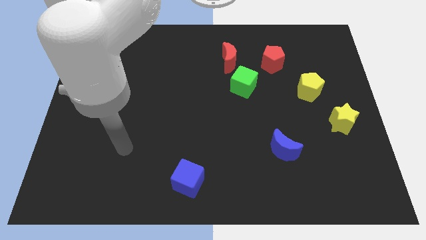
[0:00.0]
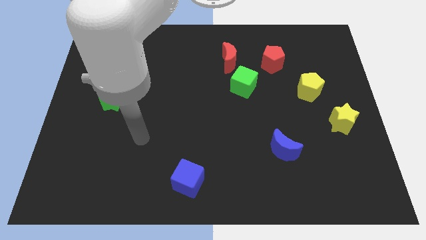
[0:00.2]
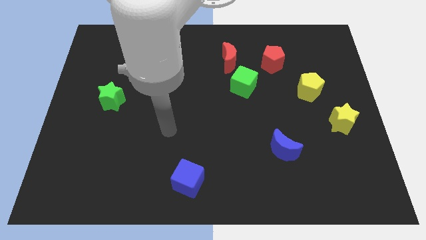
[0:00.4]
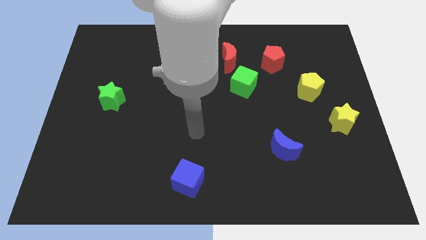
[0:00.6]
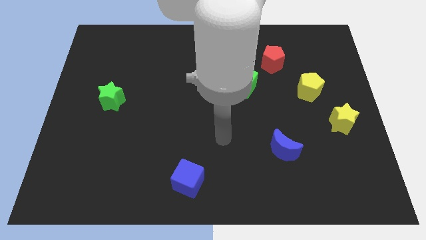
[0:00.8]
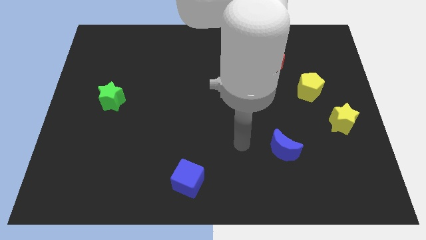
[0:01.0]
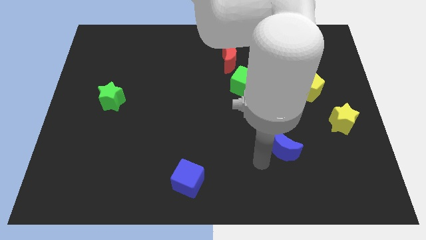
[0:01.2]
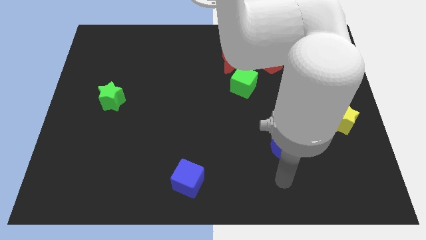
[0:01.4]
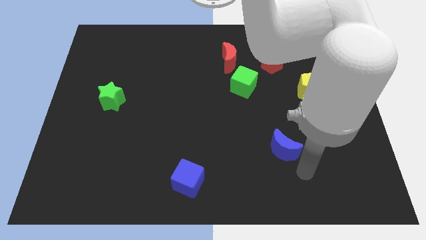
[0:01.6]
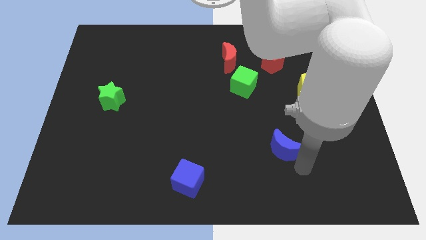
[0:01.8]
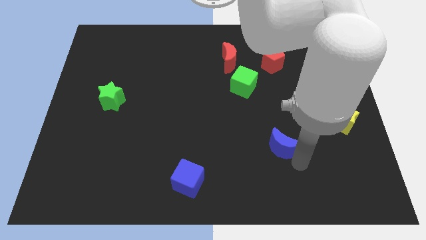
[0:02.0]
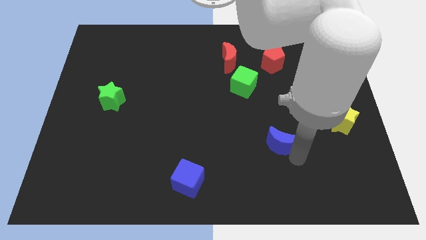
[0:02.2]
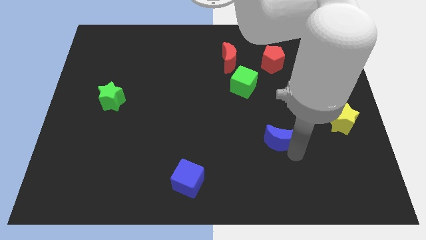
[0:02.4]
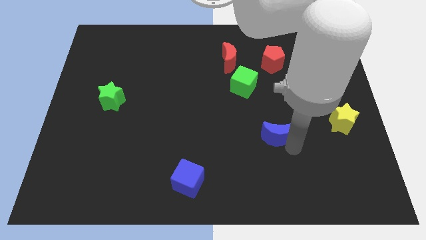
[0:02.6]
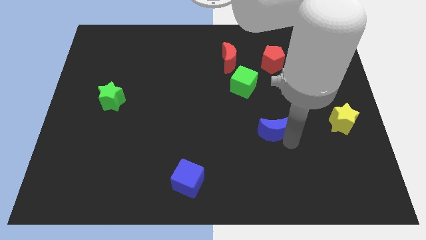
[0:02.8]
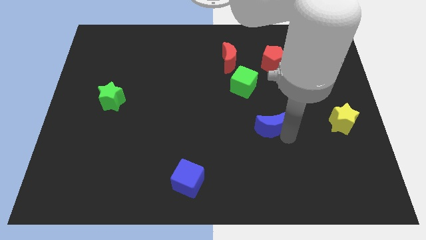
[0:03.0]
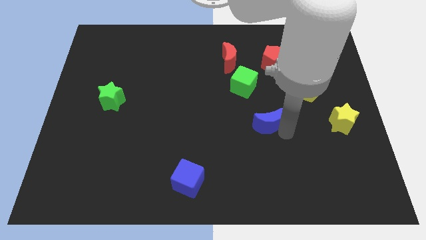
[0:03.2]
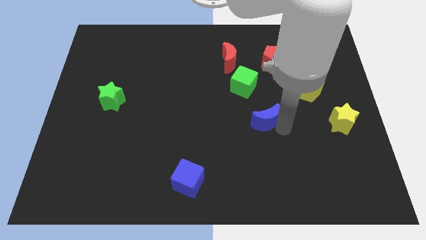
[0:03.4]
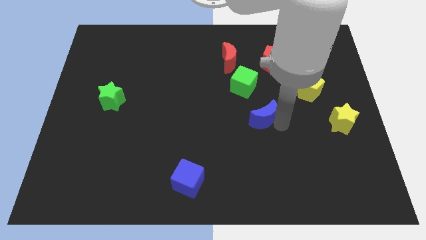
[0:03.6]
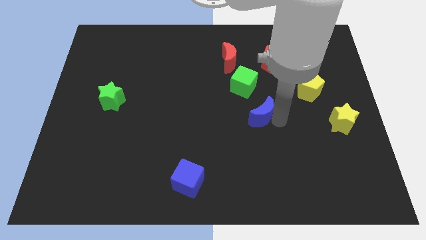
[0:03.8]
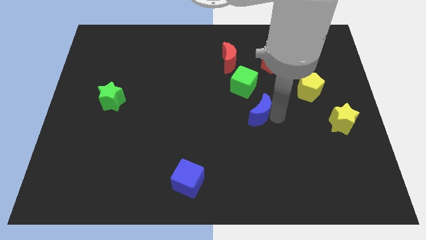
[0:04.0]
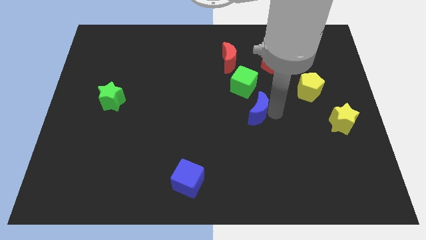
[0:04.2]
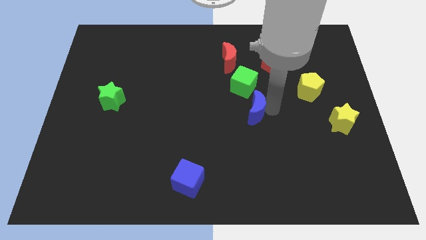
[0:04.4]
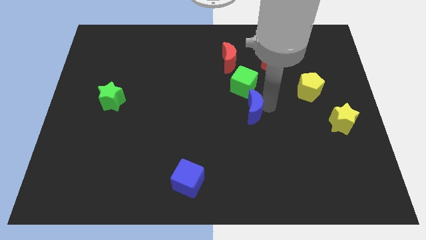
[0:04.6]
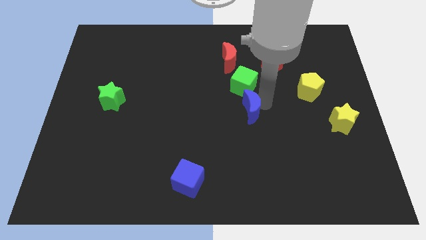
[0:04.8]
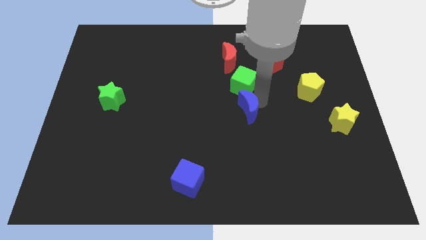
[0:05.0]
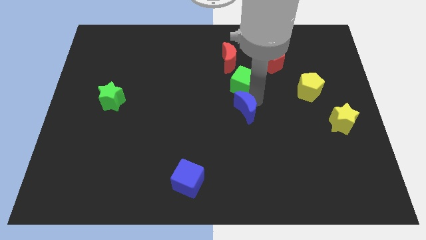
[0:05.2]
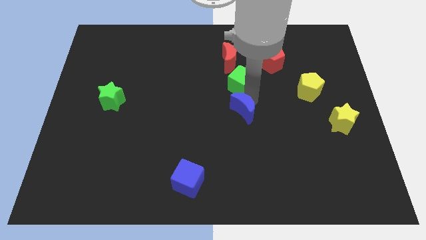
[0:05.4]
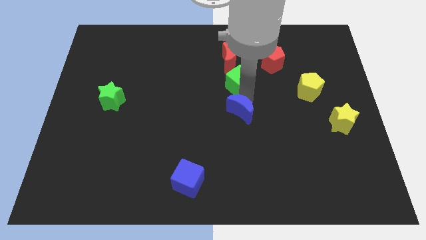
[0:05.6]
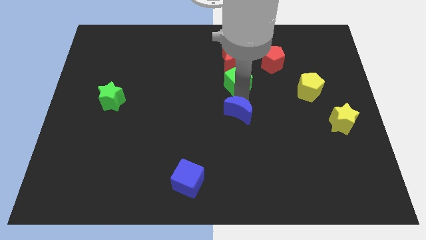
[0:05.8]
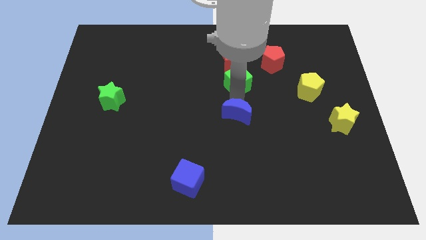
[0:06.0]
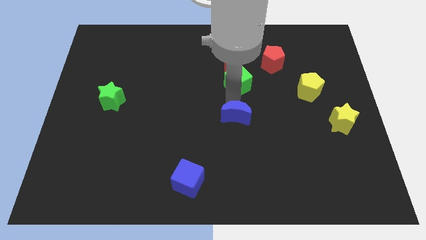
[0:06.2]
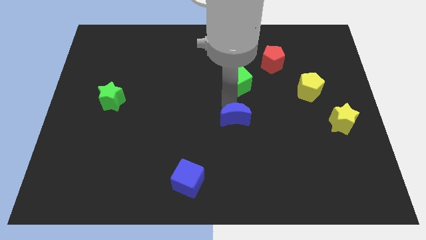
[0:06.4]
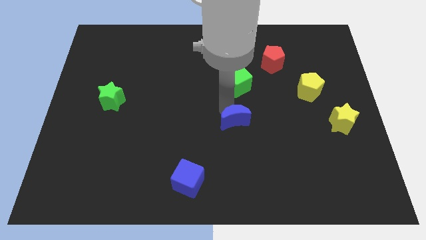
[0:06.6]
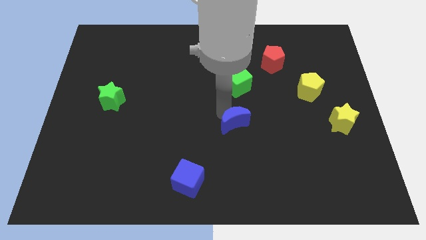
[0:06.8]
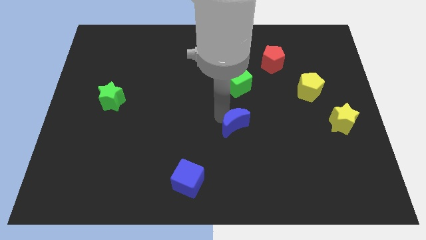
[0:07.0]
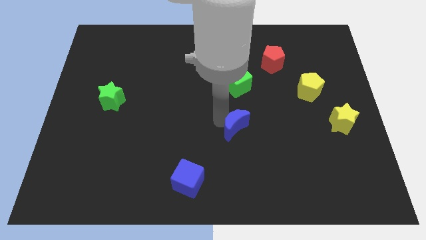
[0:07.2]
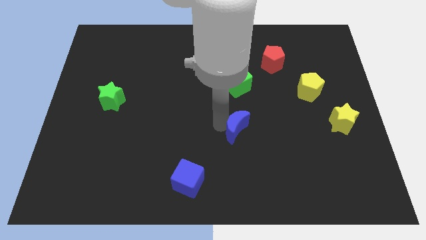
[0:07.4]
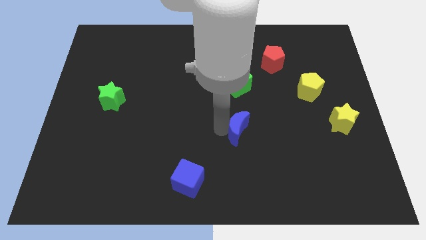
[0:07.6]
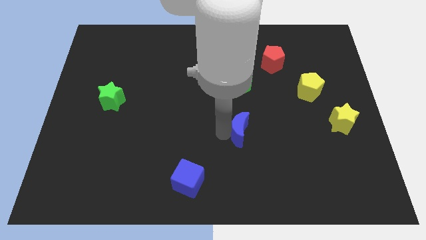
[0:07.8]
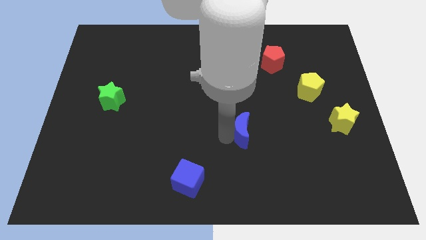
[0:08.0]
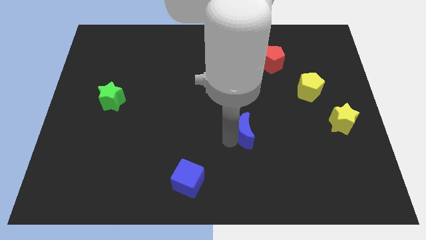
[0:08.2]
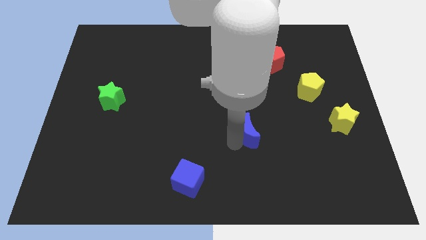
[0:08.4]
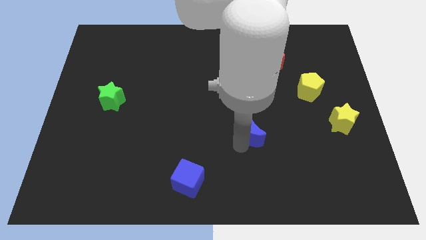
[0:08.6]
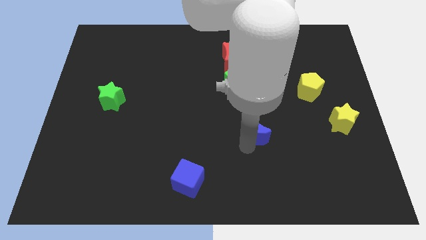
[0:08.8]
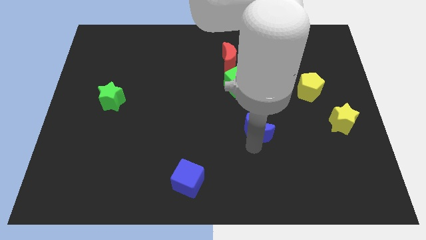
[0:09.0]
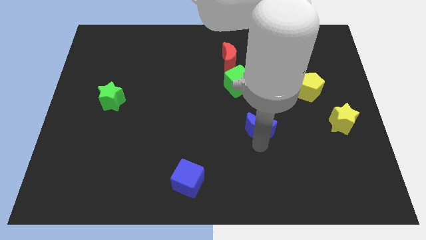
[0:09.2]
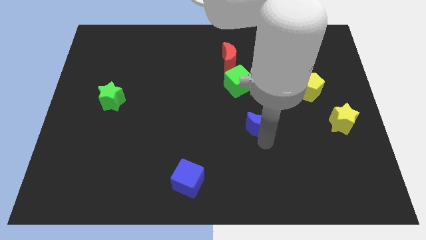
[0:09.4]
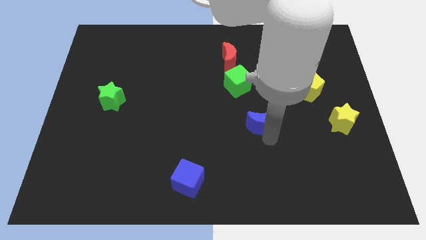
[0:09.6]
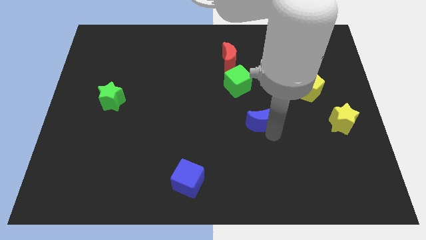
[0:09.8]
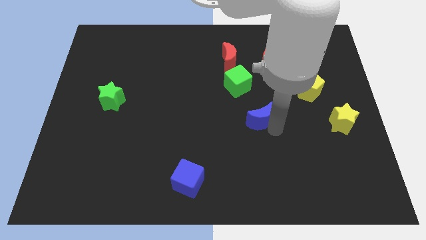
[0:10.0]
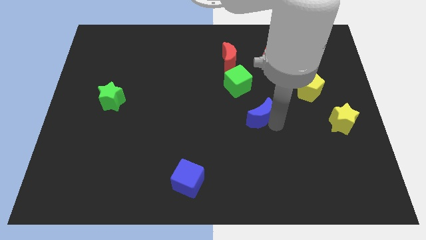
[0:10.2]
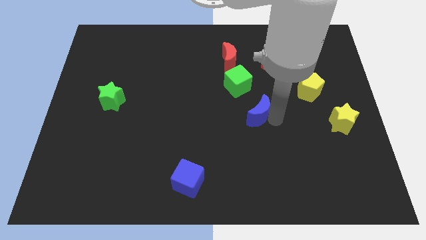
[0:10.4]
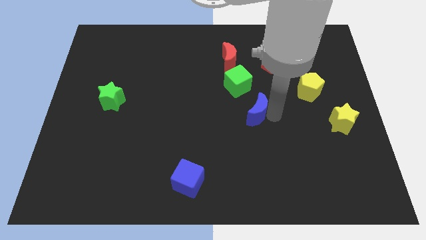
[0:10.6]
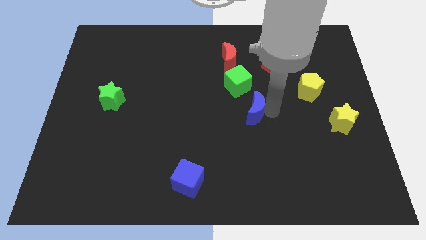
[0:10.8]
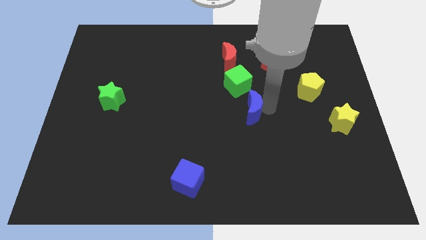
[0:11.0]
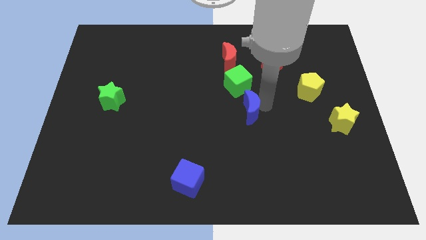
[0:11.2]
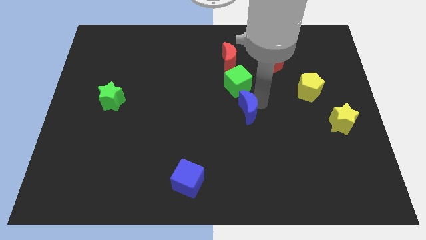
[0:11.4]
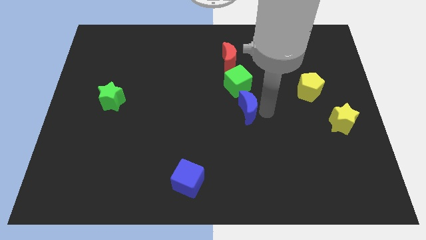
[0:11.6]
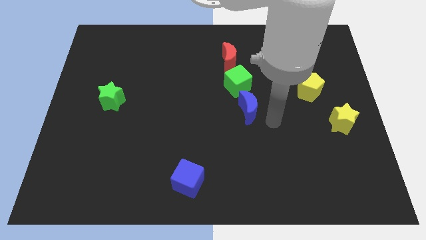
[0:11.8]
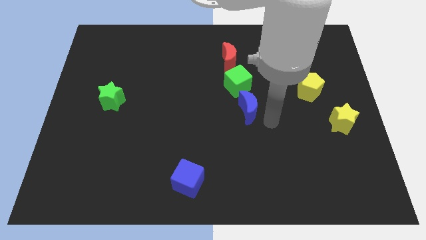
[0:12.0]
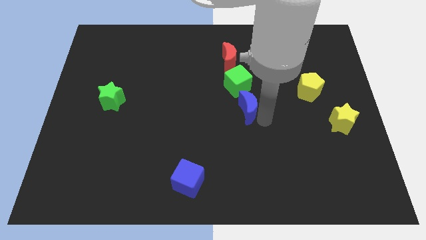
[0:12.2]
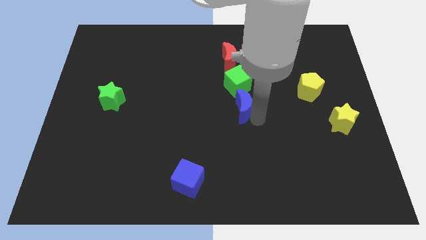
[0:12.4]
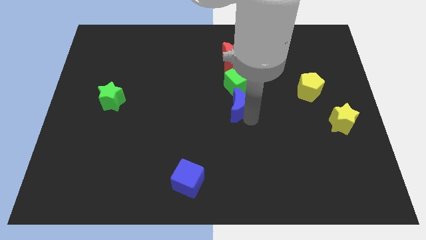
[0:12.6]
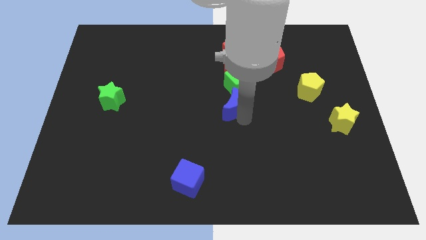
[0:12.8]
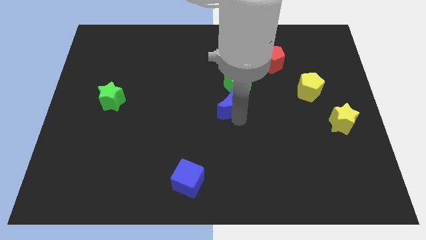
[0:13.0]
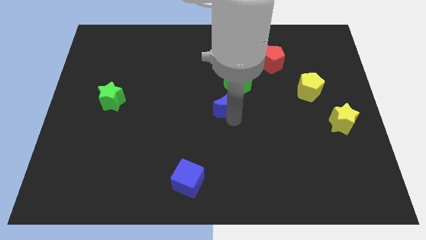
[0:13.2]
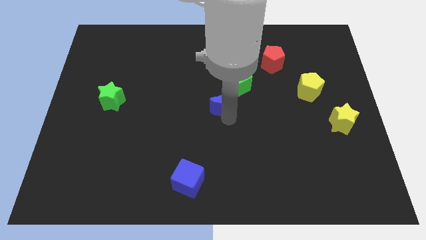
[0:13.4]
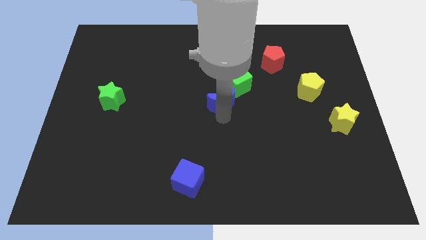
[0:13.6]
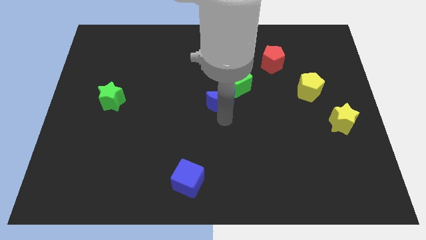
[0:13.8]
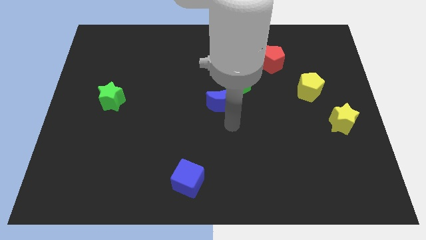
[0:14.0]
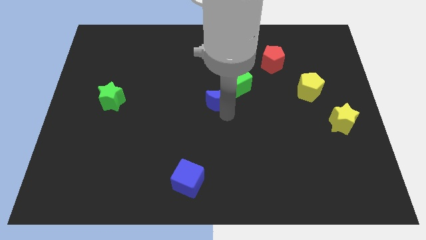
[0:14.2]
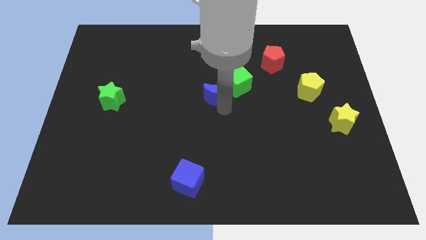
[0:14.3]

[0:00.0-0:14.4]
move the blue moon up and to the left

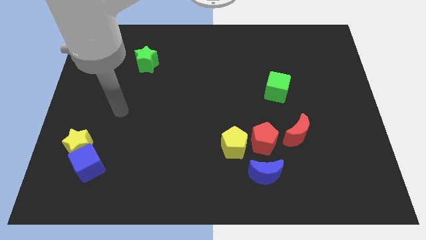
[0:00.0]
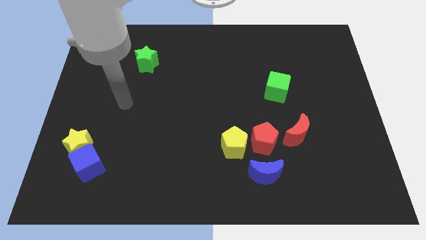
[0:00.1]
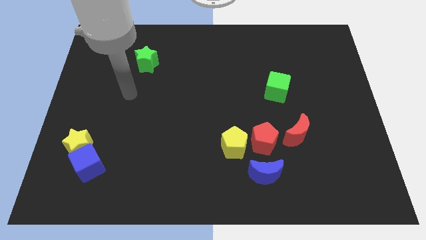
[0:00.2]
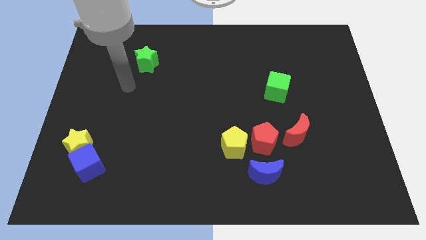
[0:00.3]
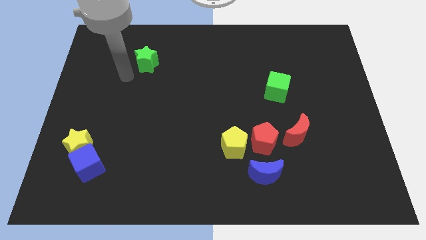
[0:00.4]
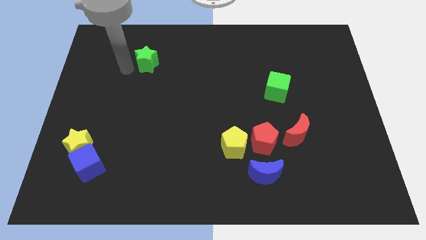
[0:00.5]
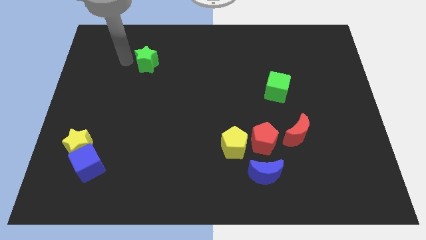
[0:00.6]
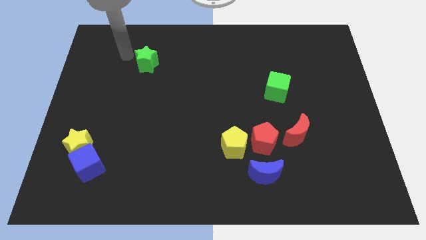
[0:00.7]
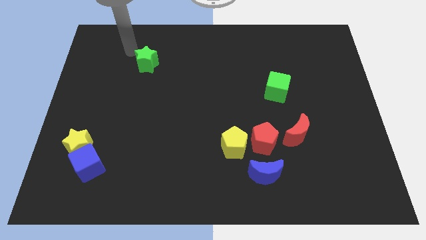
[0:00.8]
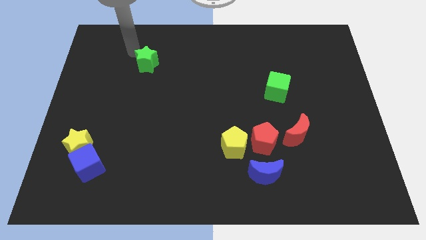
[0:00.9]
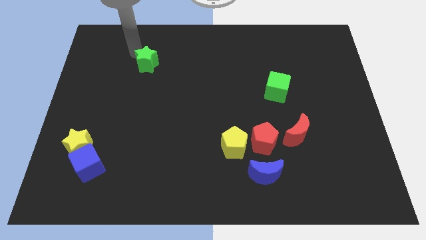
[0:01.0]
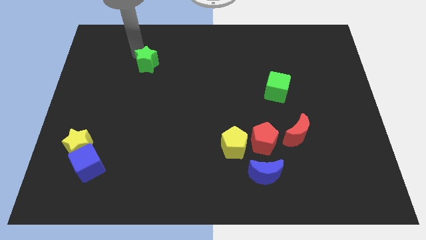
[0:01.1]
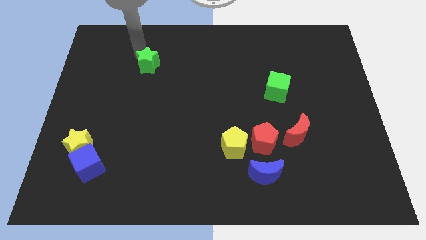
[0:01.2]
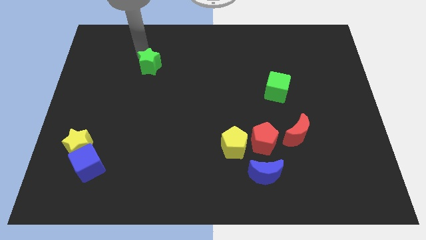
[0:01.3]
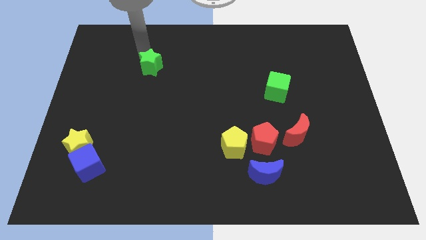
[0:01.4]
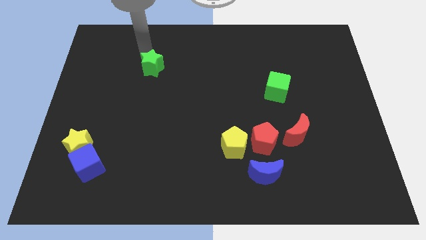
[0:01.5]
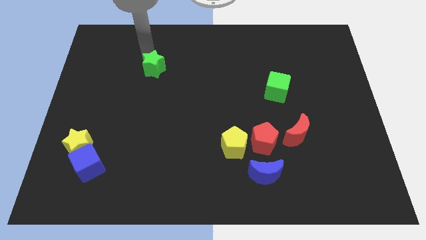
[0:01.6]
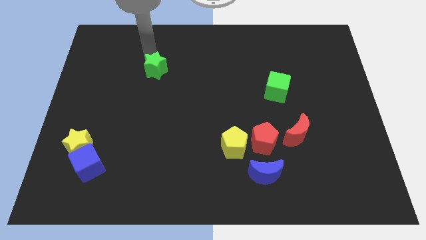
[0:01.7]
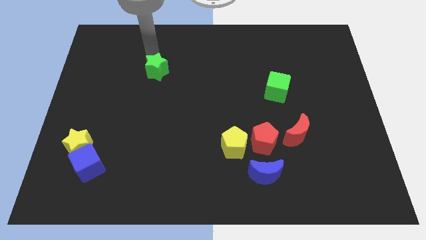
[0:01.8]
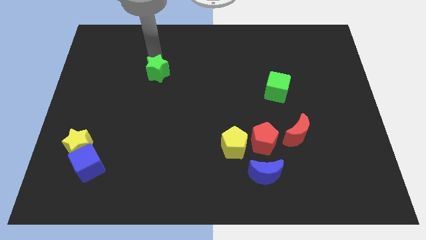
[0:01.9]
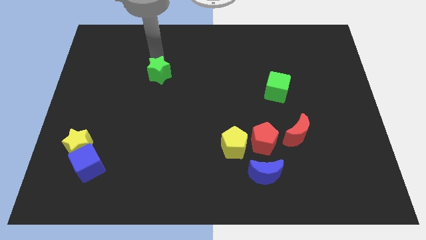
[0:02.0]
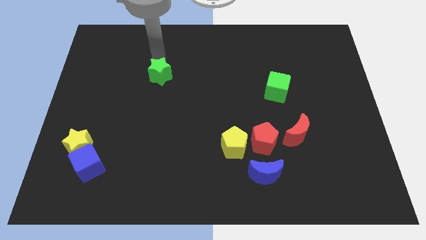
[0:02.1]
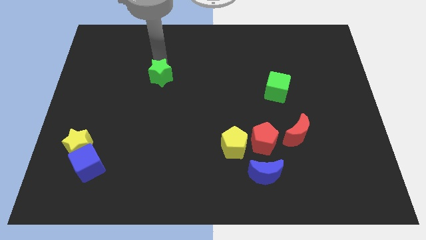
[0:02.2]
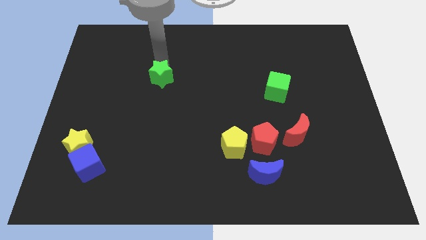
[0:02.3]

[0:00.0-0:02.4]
push the green star down and to the right diagonally slightly
